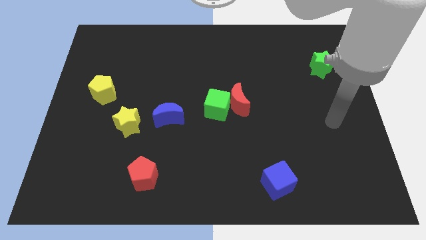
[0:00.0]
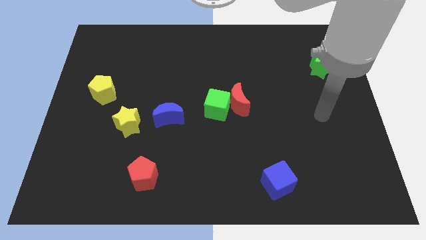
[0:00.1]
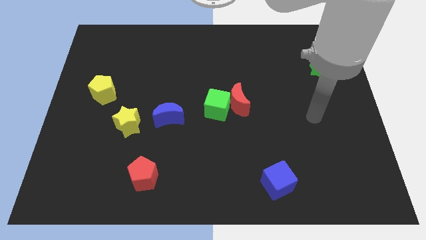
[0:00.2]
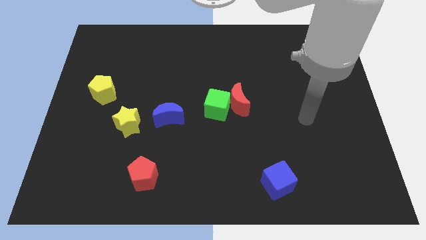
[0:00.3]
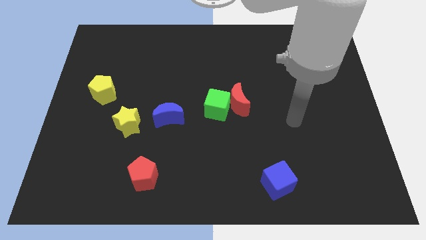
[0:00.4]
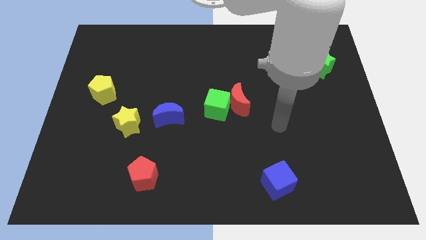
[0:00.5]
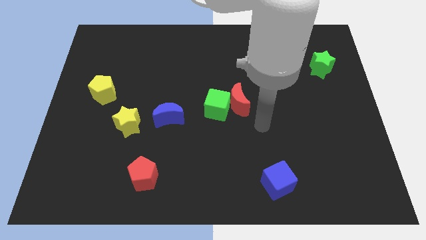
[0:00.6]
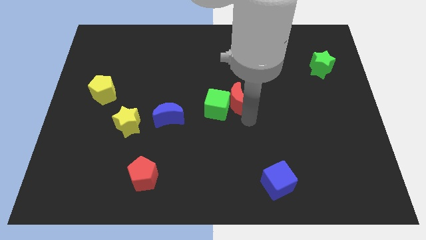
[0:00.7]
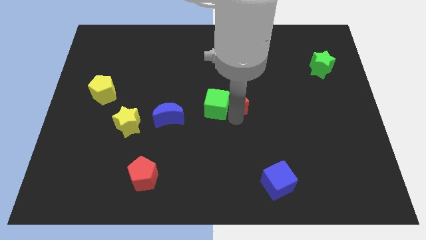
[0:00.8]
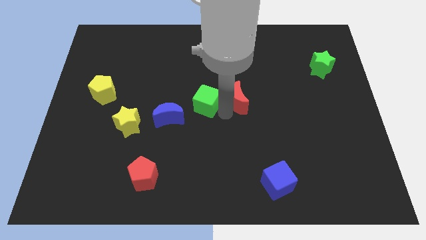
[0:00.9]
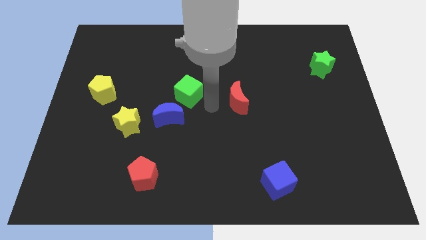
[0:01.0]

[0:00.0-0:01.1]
move the red moon away from the green cube

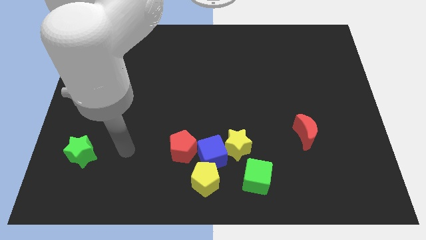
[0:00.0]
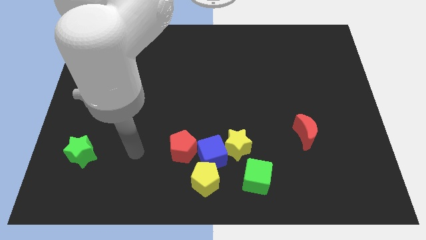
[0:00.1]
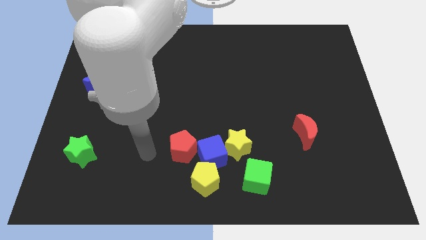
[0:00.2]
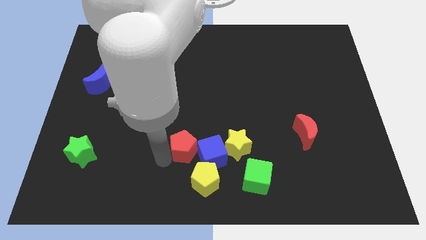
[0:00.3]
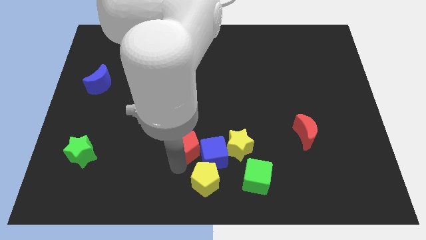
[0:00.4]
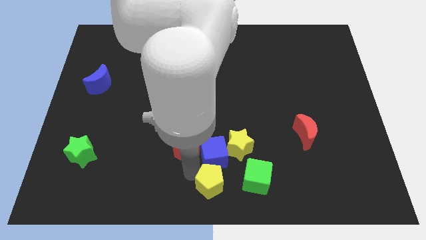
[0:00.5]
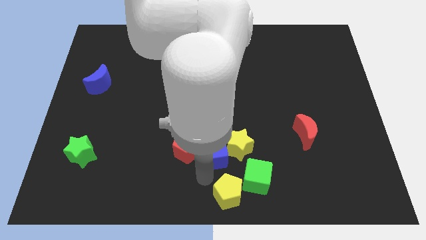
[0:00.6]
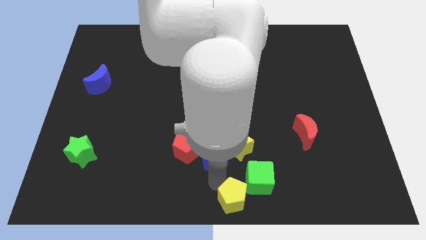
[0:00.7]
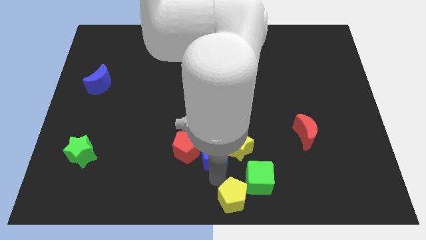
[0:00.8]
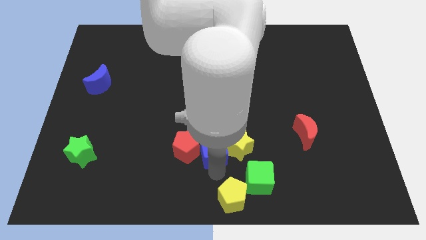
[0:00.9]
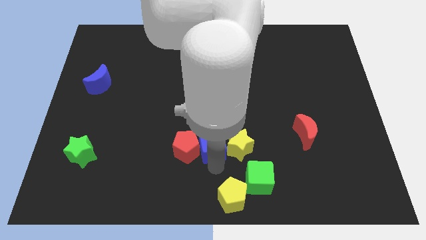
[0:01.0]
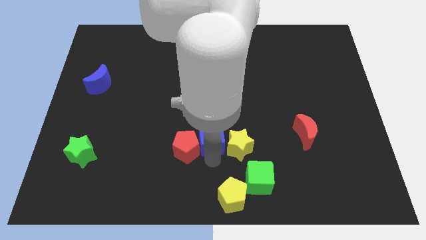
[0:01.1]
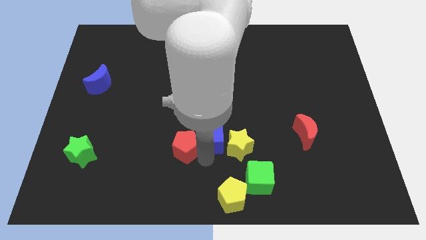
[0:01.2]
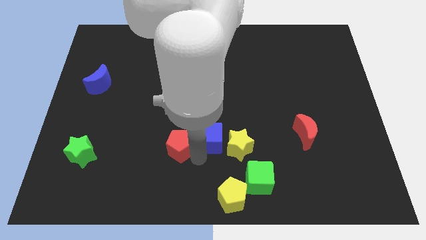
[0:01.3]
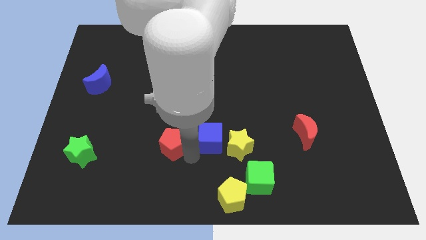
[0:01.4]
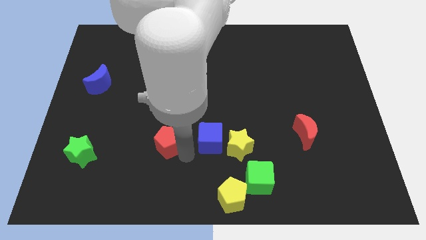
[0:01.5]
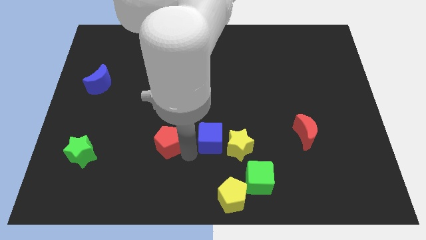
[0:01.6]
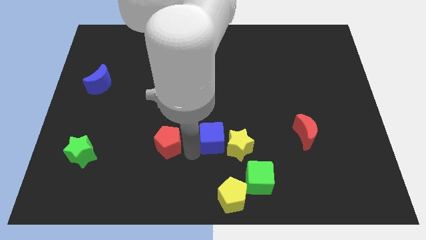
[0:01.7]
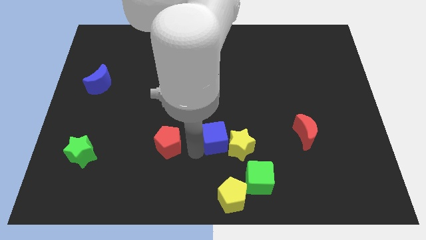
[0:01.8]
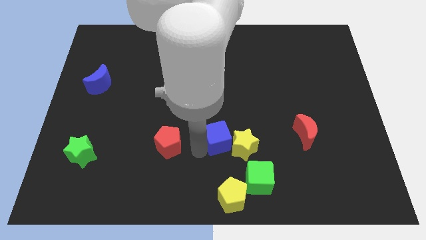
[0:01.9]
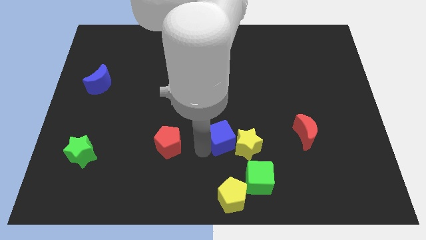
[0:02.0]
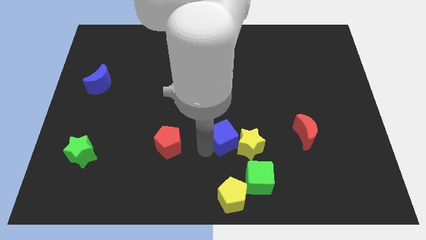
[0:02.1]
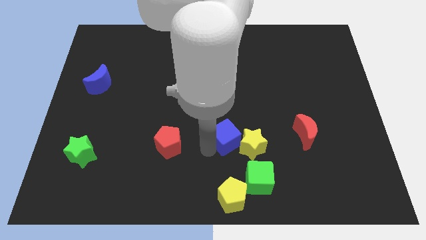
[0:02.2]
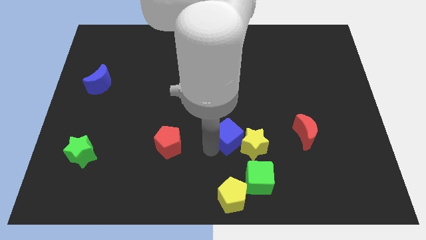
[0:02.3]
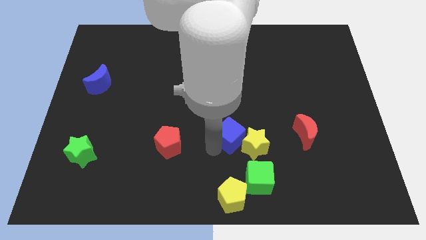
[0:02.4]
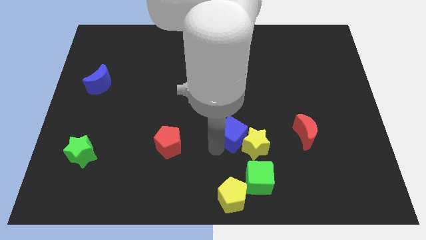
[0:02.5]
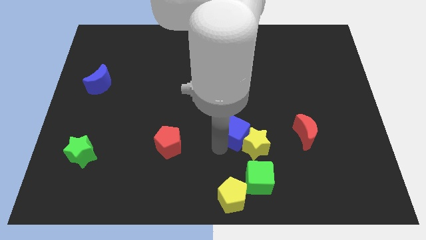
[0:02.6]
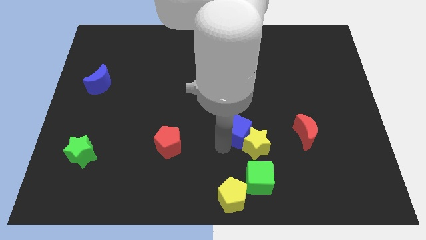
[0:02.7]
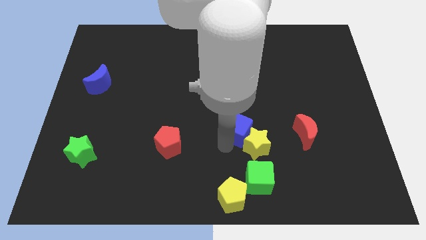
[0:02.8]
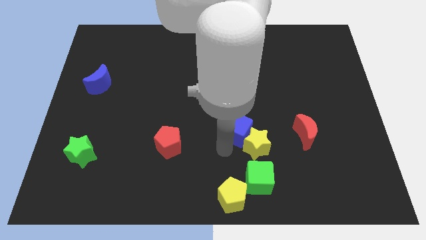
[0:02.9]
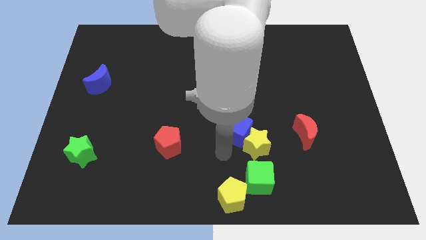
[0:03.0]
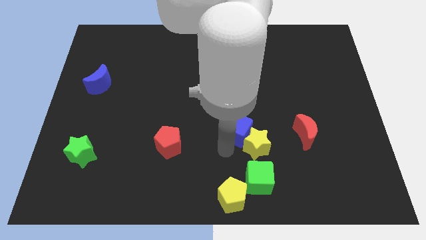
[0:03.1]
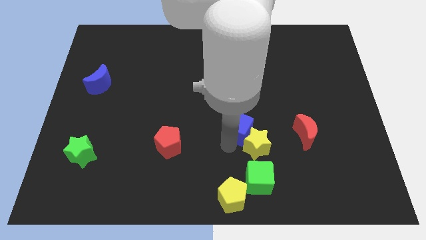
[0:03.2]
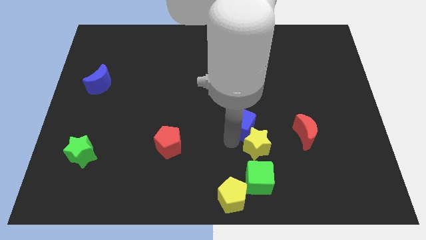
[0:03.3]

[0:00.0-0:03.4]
separate the blue cube from the yellow star, yellow pentagon, and red pentagon

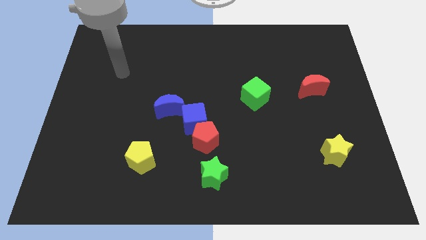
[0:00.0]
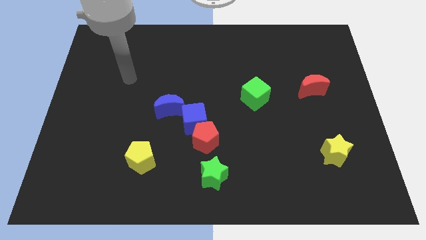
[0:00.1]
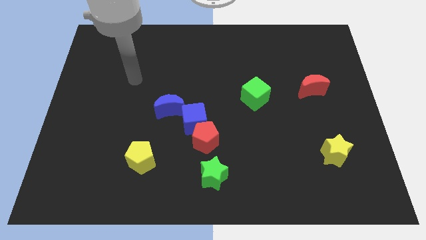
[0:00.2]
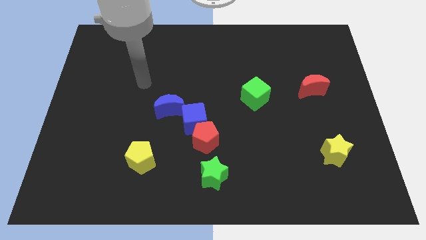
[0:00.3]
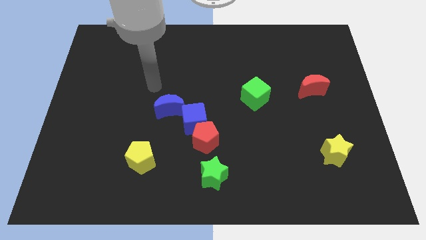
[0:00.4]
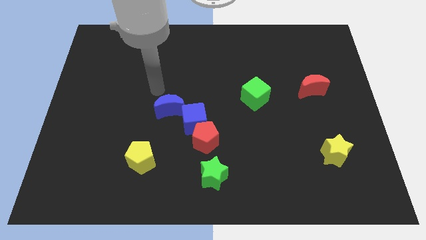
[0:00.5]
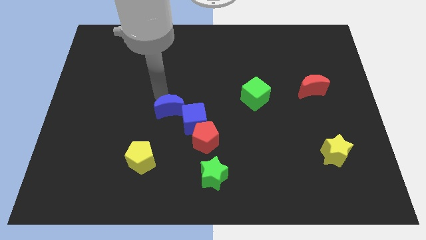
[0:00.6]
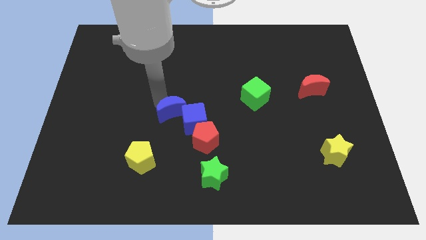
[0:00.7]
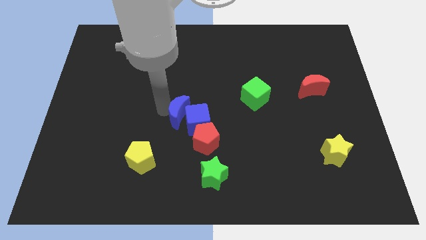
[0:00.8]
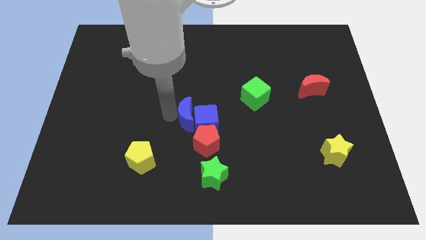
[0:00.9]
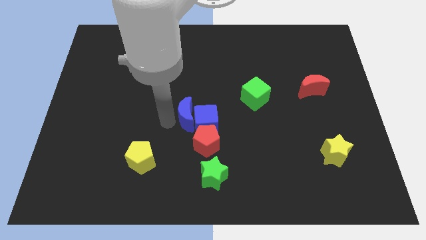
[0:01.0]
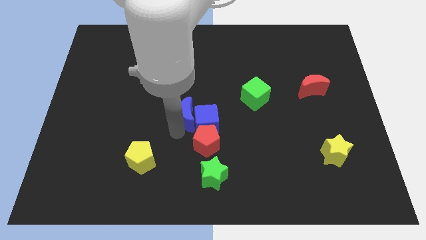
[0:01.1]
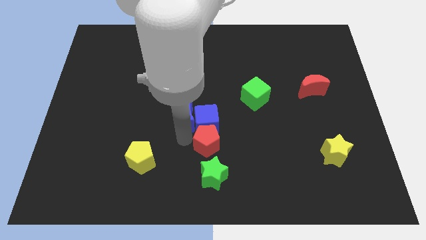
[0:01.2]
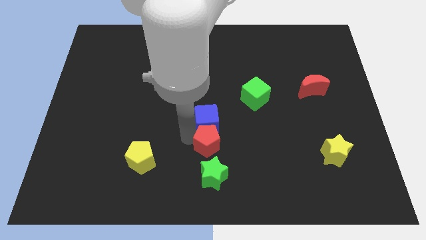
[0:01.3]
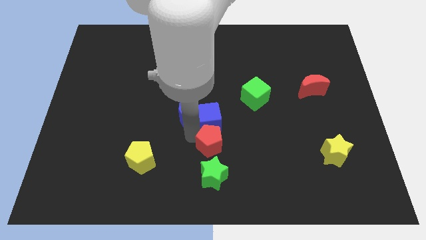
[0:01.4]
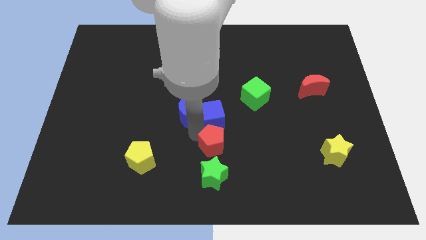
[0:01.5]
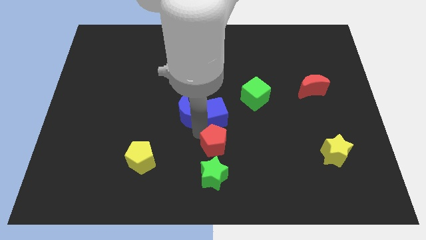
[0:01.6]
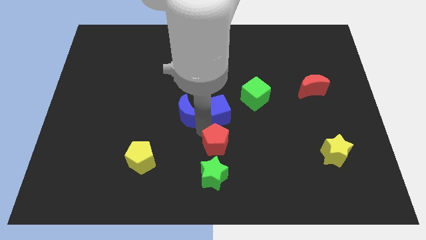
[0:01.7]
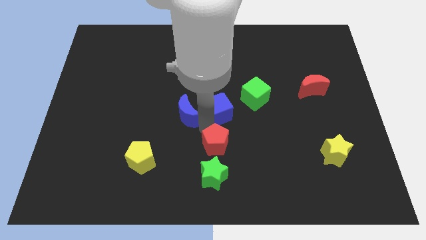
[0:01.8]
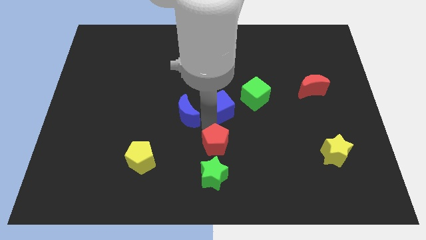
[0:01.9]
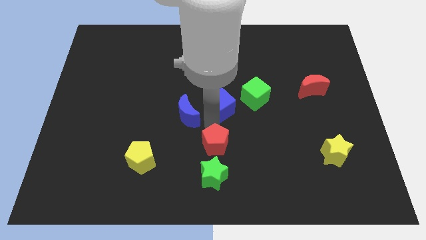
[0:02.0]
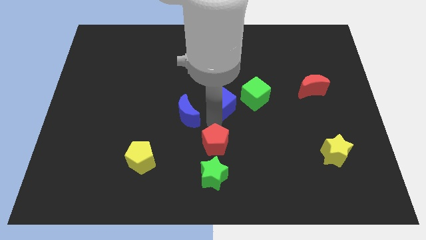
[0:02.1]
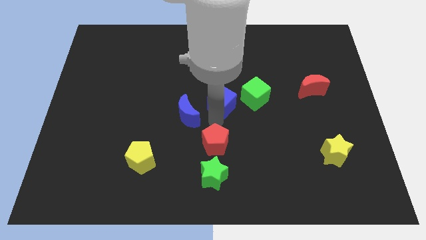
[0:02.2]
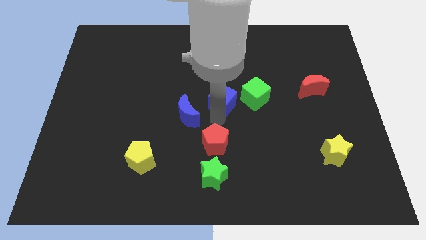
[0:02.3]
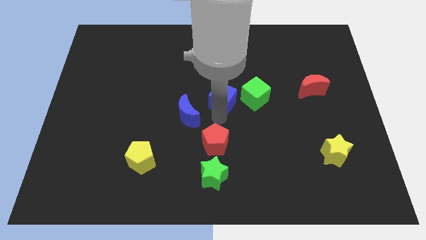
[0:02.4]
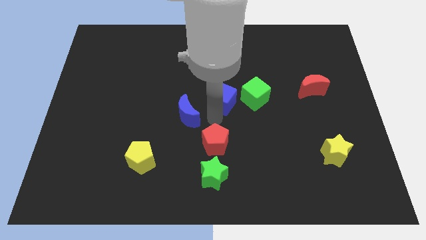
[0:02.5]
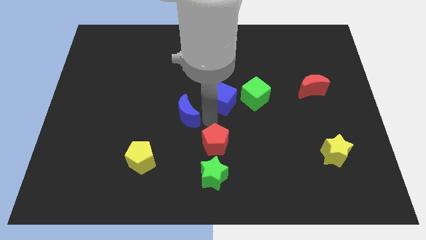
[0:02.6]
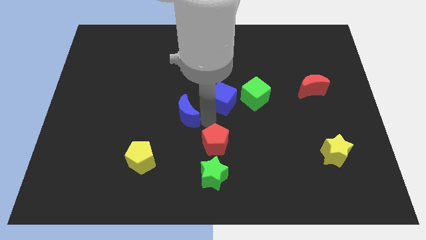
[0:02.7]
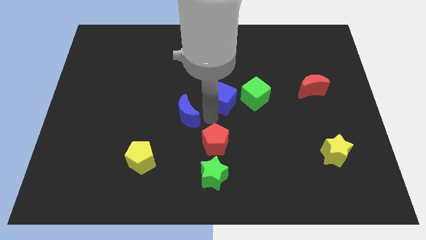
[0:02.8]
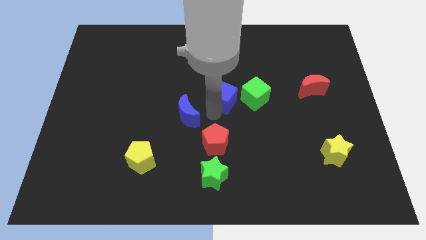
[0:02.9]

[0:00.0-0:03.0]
pull the blue cube apart from the red pentagon and blue moon

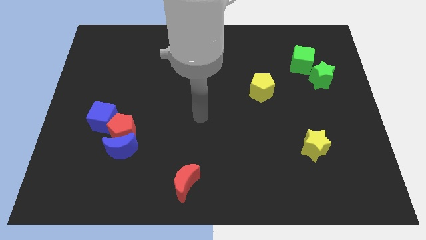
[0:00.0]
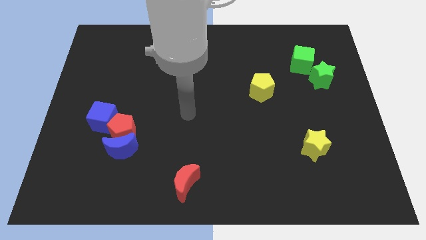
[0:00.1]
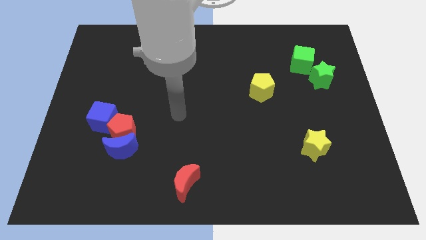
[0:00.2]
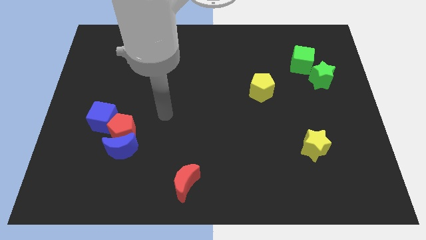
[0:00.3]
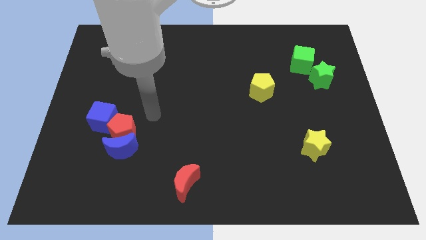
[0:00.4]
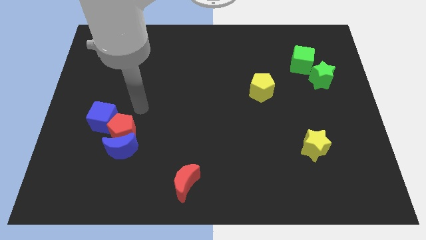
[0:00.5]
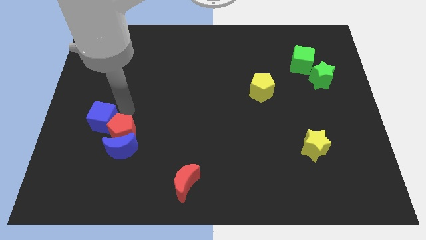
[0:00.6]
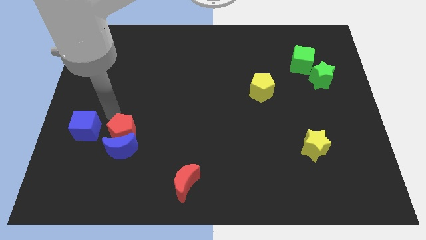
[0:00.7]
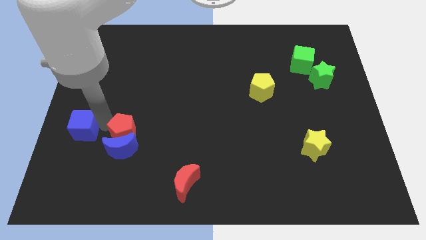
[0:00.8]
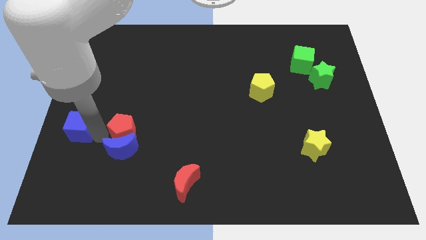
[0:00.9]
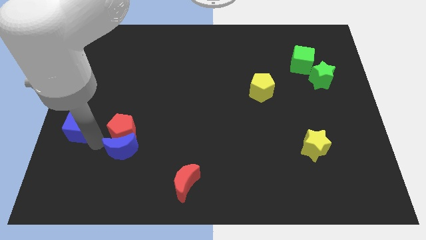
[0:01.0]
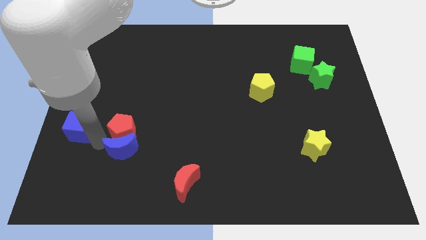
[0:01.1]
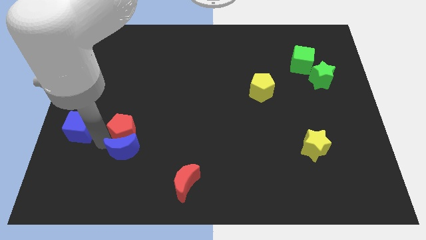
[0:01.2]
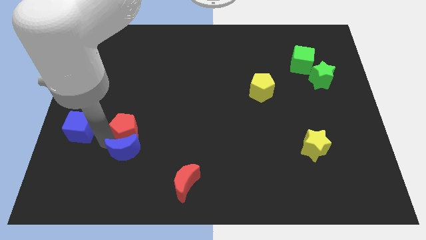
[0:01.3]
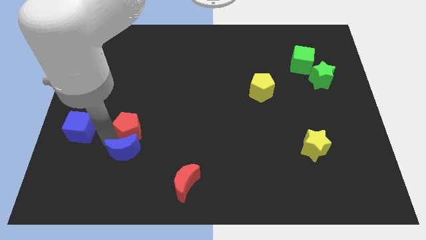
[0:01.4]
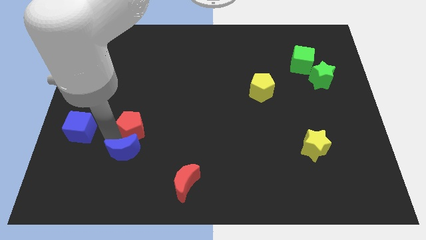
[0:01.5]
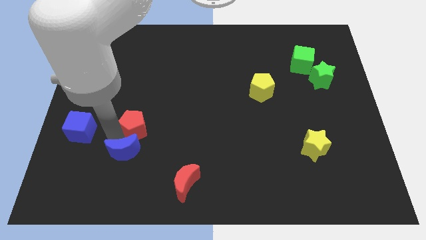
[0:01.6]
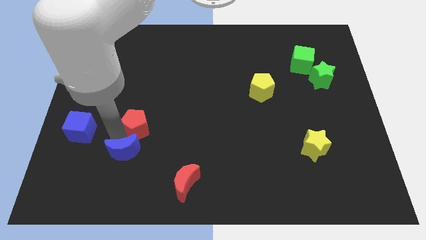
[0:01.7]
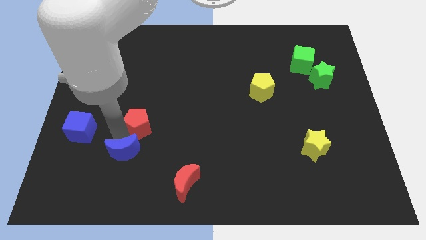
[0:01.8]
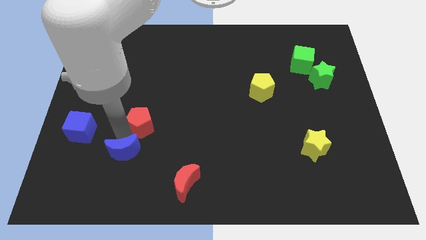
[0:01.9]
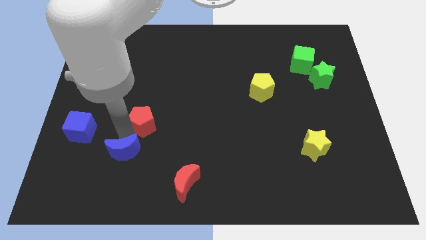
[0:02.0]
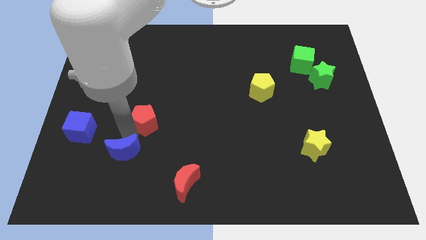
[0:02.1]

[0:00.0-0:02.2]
move the red pentagon away from the blue moon and blue cube
